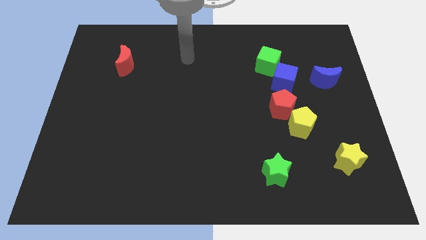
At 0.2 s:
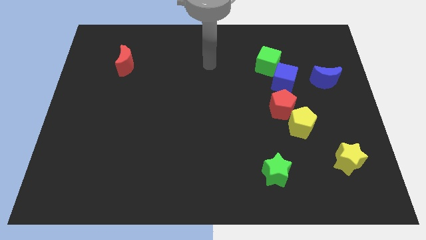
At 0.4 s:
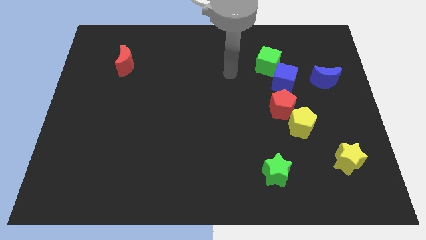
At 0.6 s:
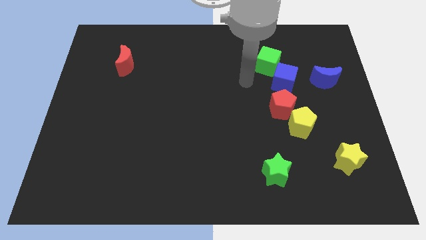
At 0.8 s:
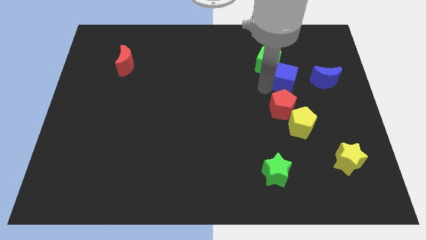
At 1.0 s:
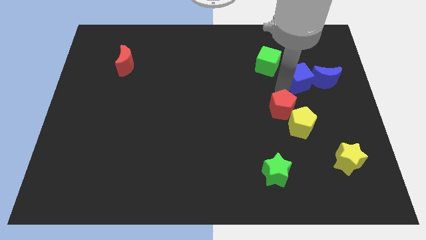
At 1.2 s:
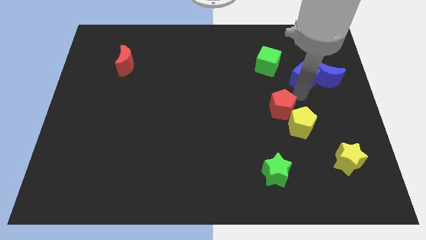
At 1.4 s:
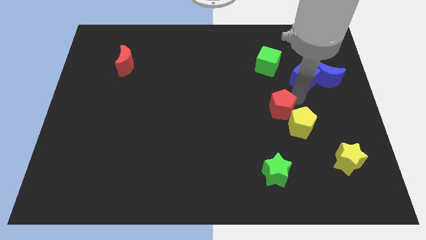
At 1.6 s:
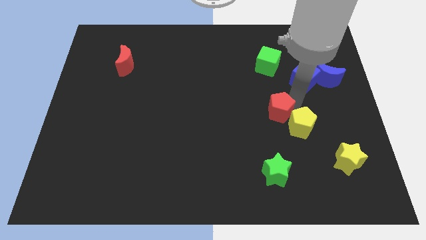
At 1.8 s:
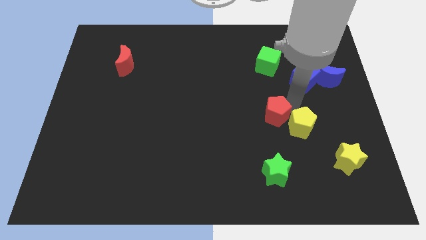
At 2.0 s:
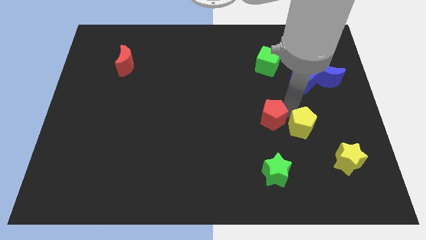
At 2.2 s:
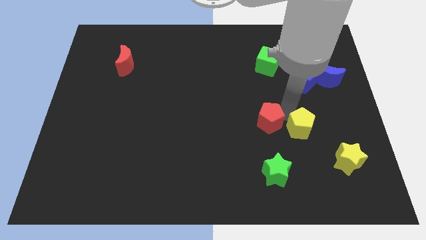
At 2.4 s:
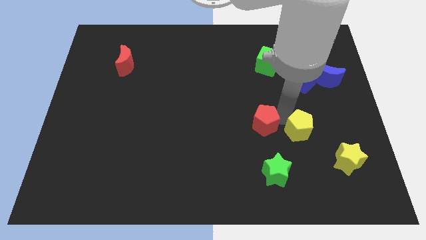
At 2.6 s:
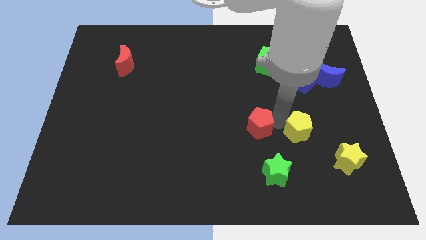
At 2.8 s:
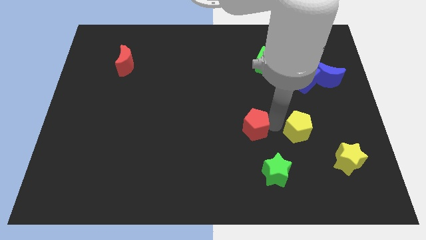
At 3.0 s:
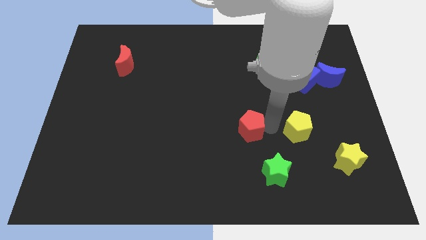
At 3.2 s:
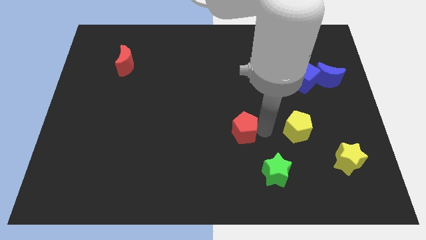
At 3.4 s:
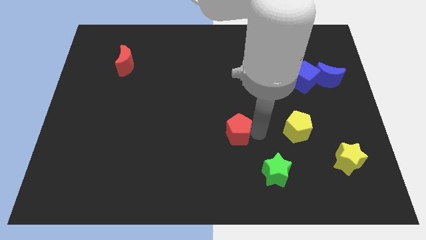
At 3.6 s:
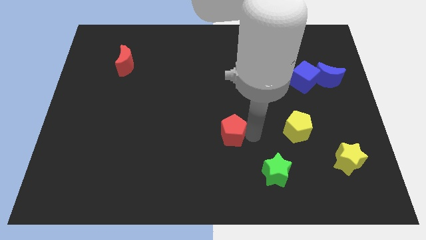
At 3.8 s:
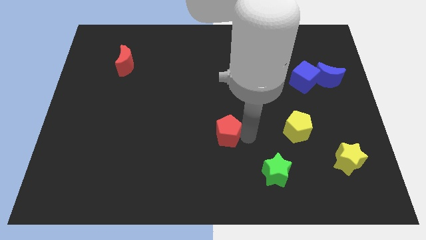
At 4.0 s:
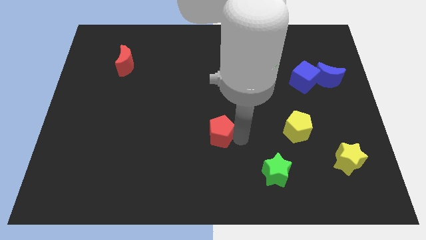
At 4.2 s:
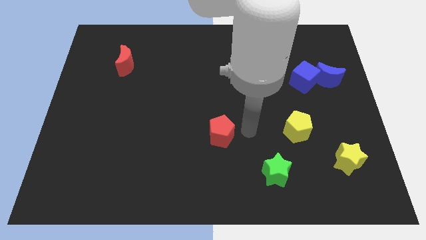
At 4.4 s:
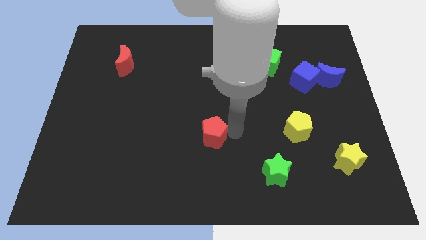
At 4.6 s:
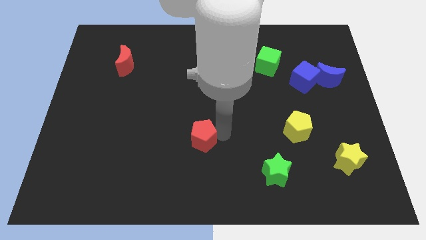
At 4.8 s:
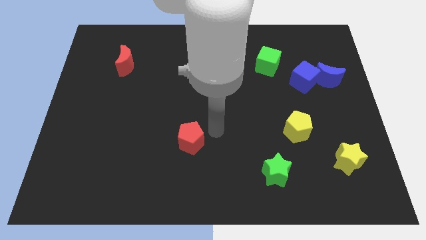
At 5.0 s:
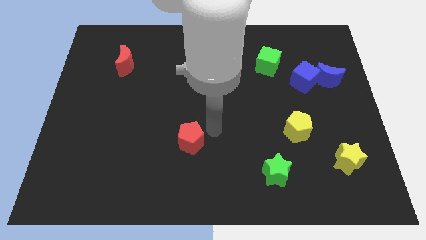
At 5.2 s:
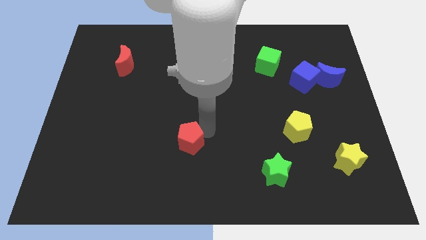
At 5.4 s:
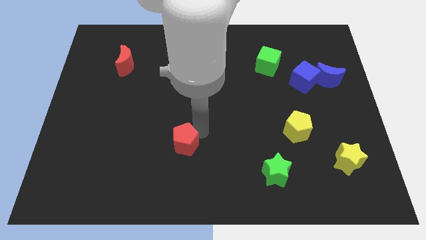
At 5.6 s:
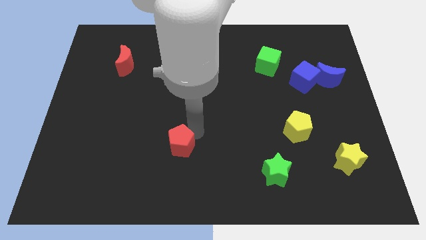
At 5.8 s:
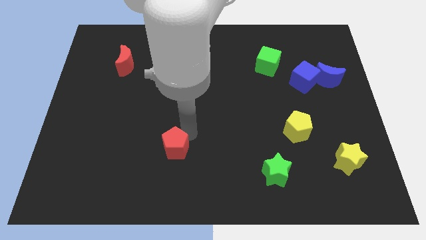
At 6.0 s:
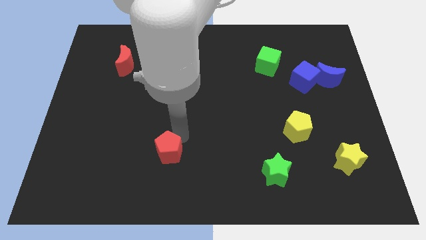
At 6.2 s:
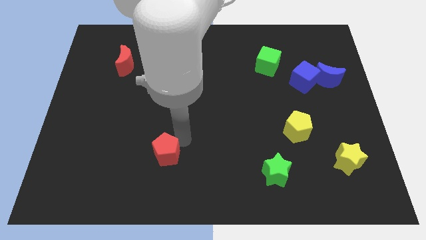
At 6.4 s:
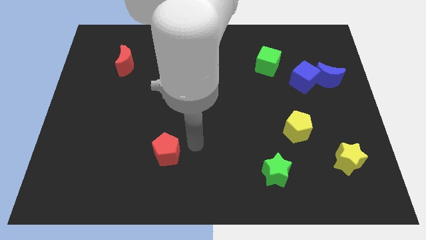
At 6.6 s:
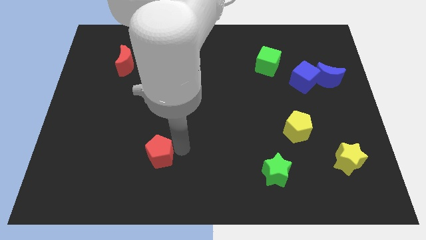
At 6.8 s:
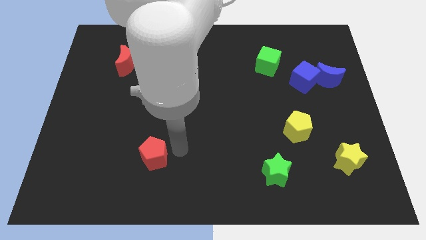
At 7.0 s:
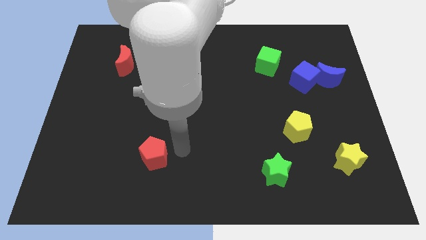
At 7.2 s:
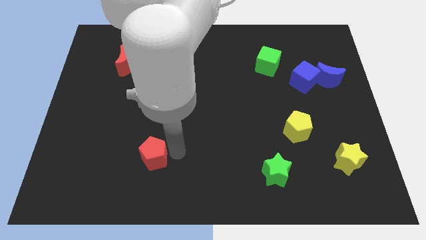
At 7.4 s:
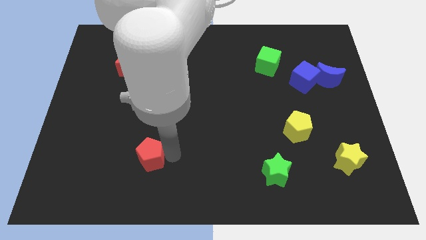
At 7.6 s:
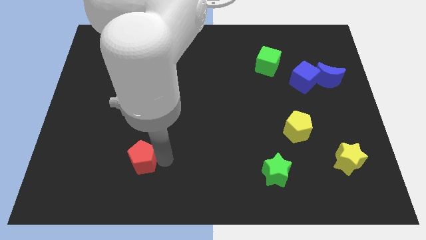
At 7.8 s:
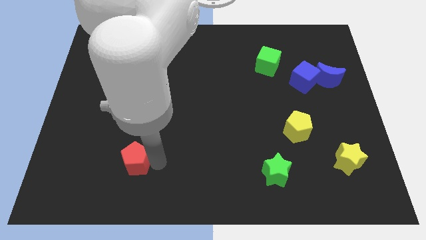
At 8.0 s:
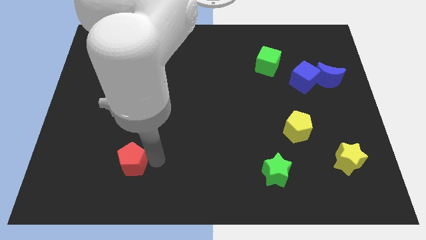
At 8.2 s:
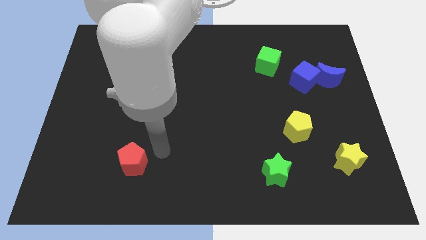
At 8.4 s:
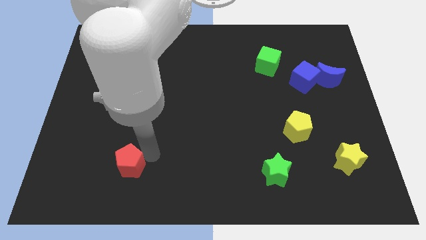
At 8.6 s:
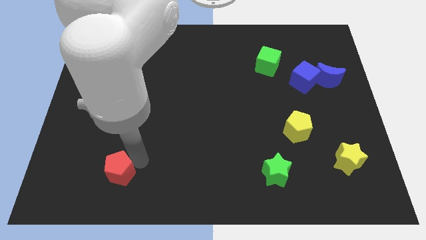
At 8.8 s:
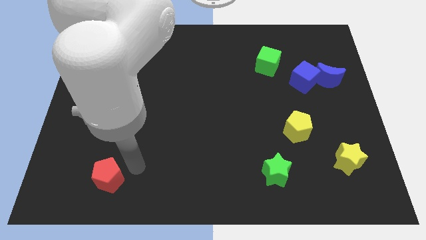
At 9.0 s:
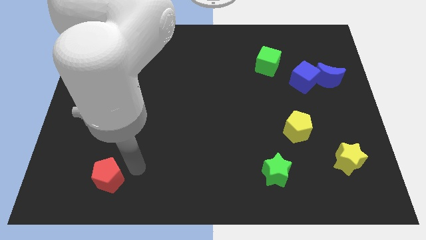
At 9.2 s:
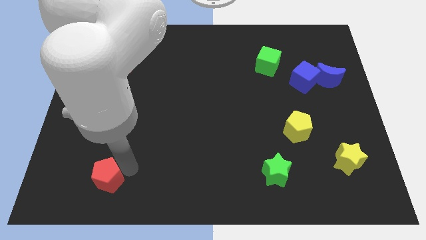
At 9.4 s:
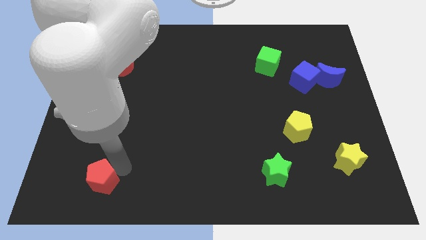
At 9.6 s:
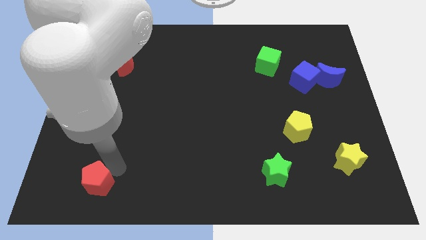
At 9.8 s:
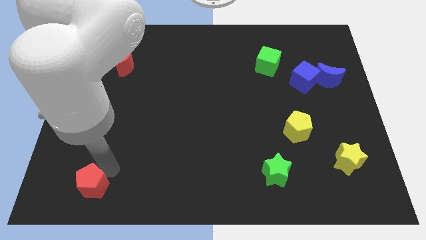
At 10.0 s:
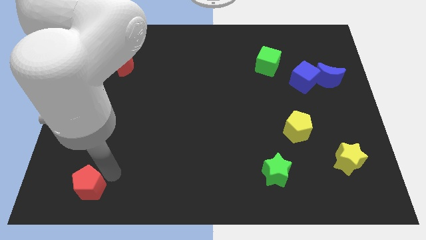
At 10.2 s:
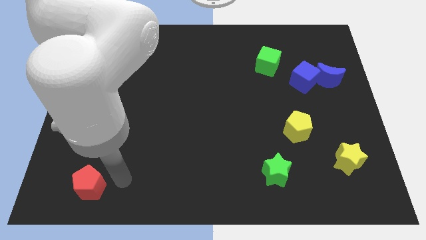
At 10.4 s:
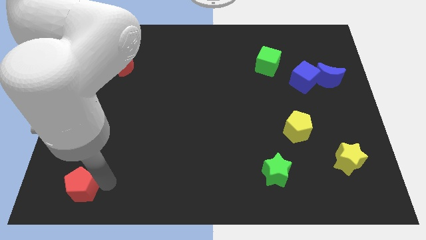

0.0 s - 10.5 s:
put the red pentagon to the lower left corner

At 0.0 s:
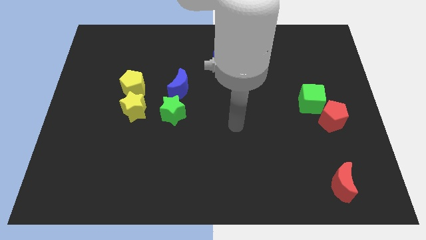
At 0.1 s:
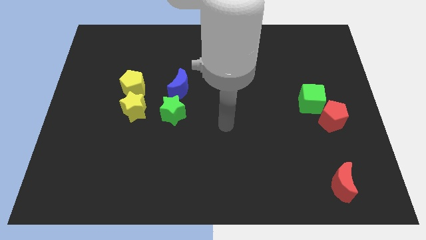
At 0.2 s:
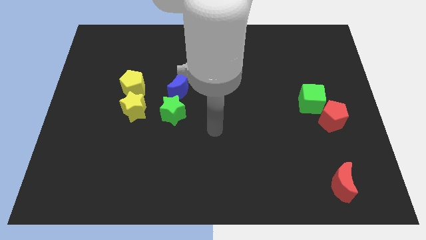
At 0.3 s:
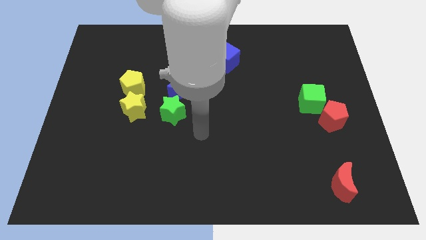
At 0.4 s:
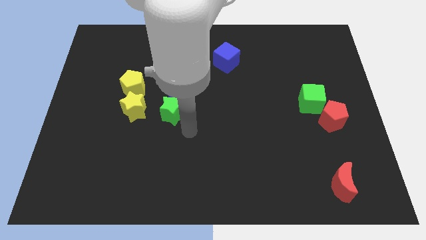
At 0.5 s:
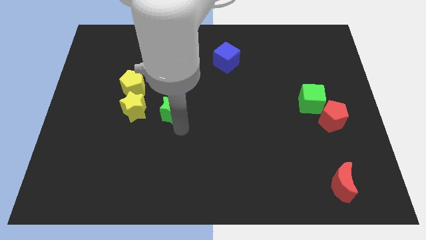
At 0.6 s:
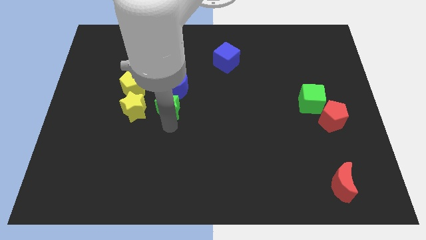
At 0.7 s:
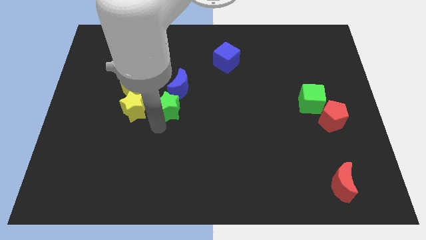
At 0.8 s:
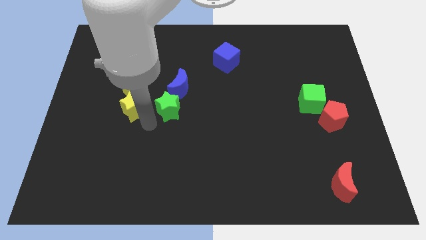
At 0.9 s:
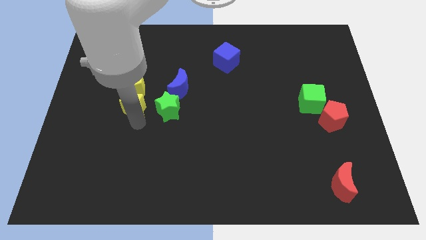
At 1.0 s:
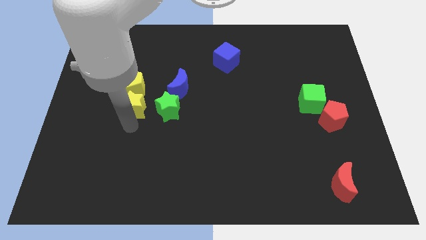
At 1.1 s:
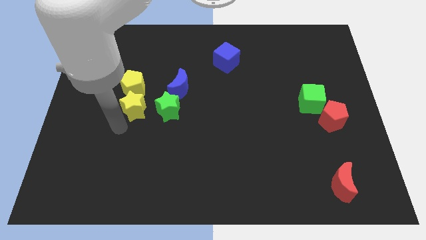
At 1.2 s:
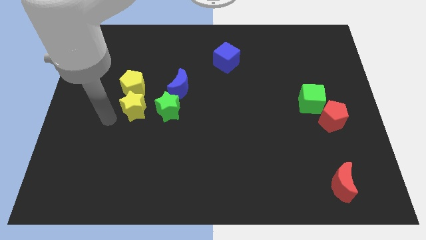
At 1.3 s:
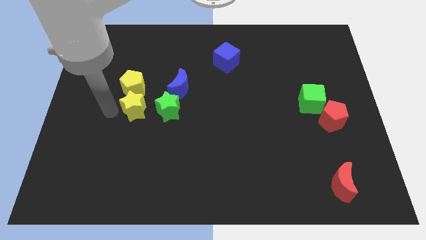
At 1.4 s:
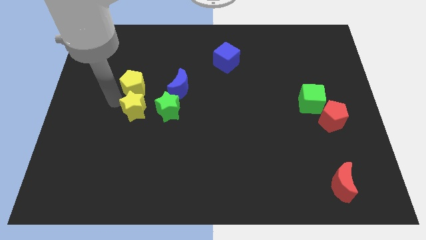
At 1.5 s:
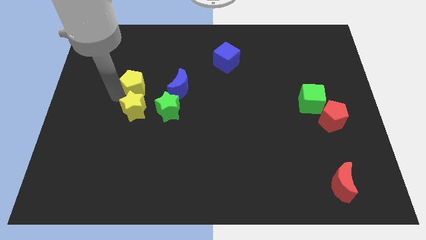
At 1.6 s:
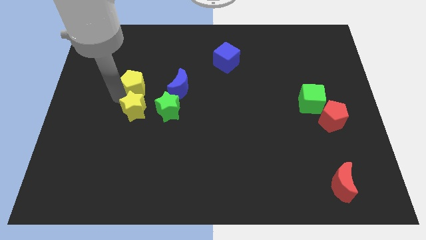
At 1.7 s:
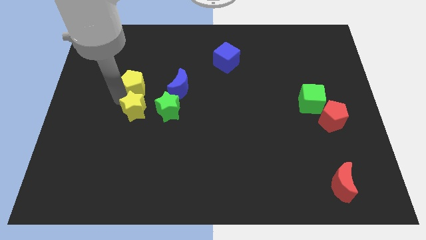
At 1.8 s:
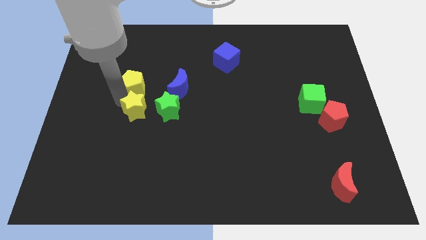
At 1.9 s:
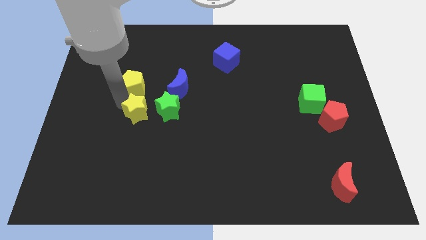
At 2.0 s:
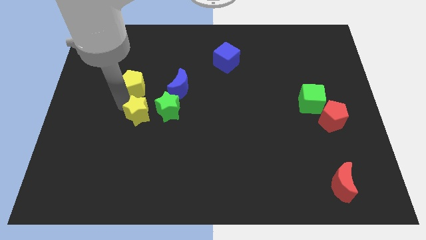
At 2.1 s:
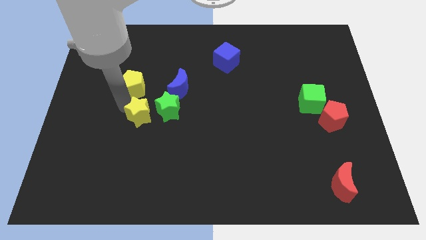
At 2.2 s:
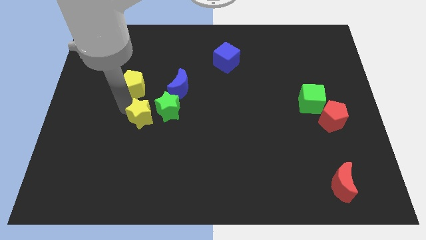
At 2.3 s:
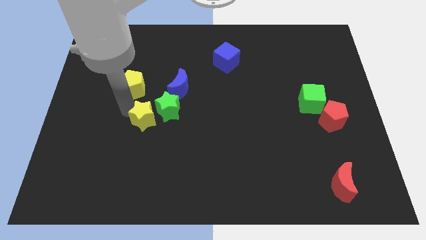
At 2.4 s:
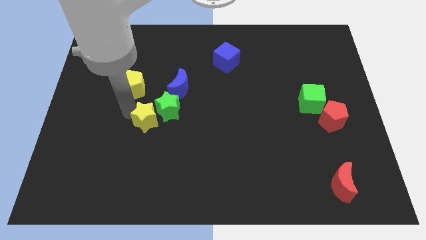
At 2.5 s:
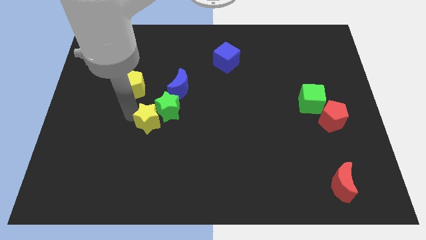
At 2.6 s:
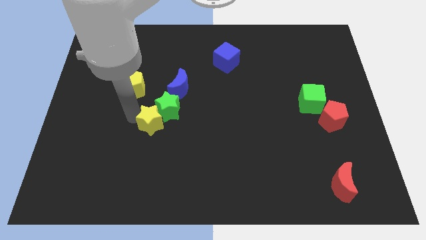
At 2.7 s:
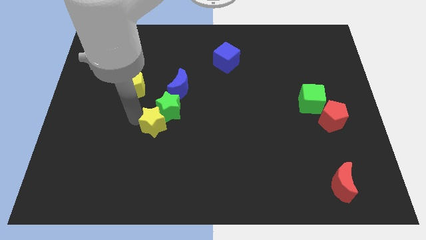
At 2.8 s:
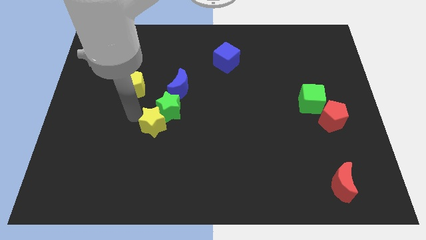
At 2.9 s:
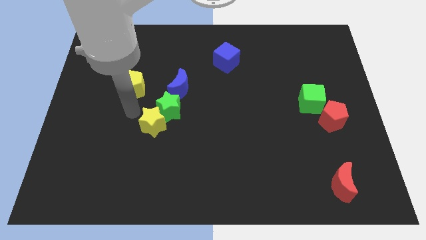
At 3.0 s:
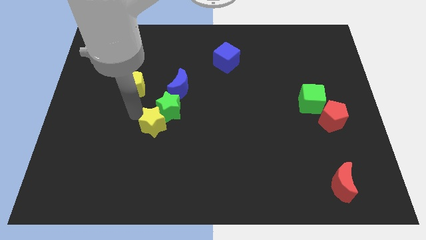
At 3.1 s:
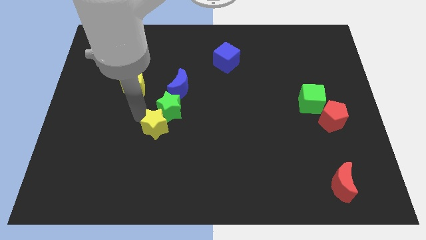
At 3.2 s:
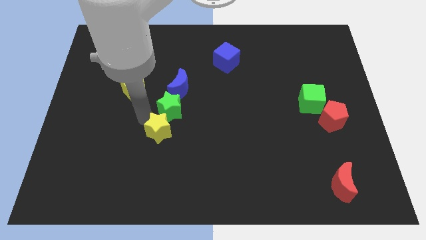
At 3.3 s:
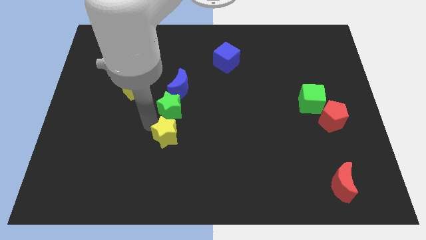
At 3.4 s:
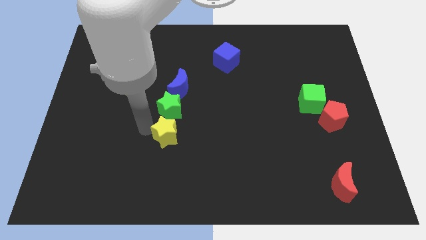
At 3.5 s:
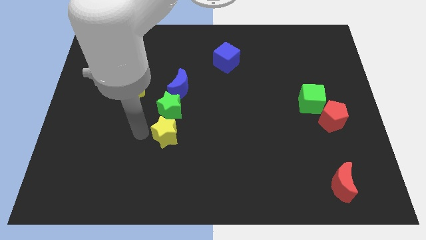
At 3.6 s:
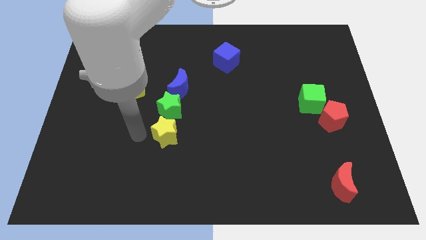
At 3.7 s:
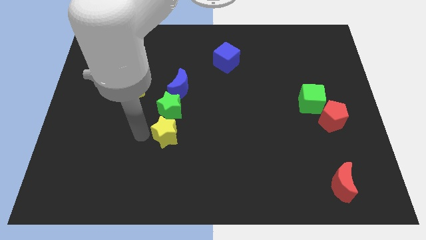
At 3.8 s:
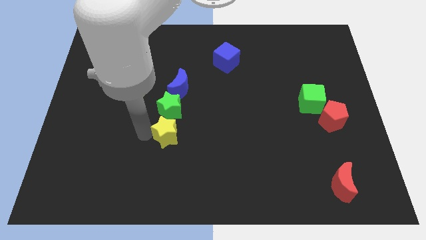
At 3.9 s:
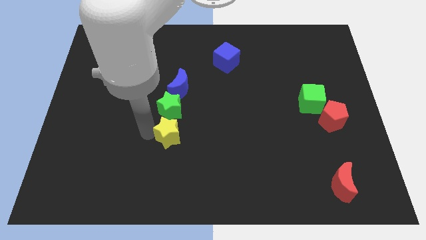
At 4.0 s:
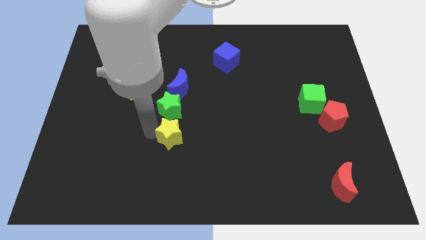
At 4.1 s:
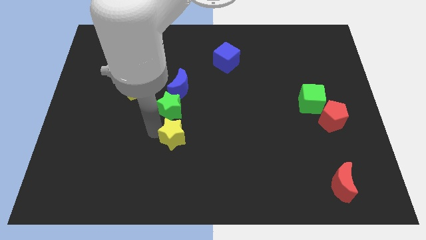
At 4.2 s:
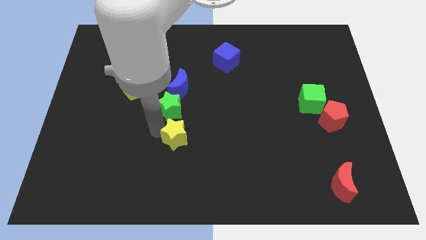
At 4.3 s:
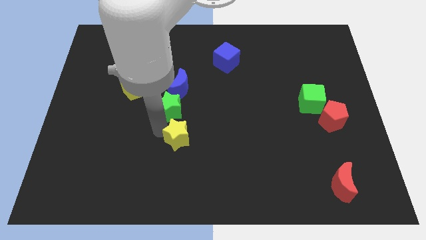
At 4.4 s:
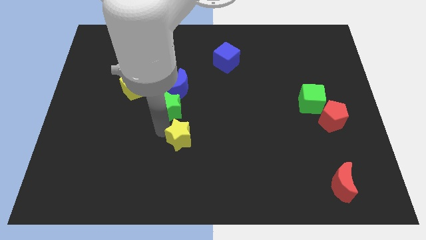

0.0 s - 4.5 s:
put the yellow star to the center of the board
